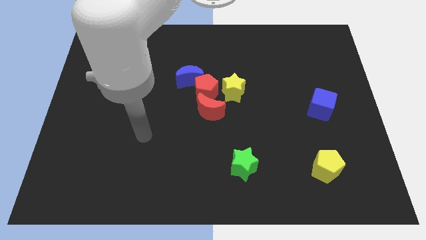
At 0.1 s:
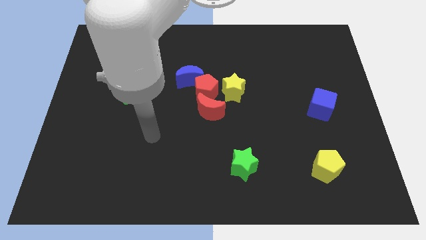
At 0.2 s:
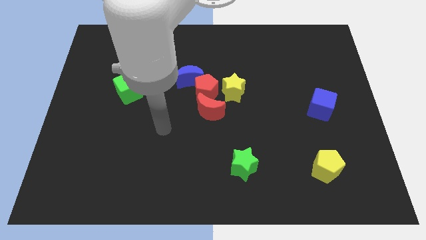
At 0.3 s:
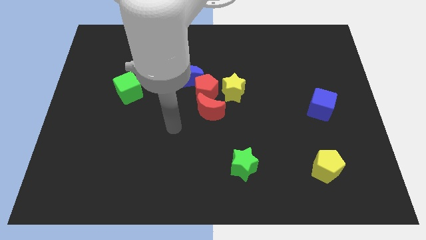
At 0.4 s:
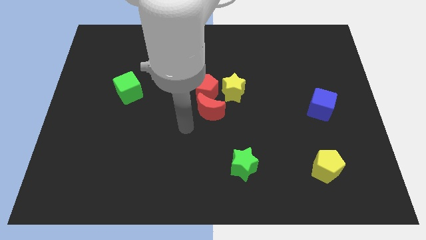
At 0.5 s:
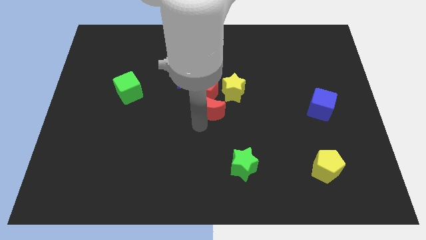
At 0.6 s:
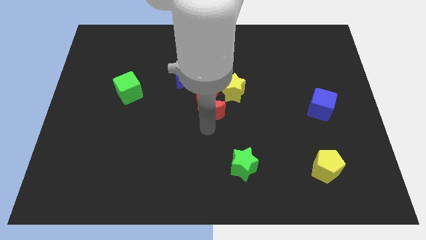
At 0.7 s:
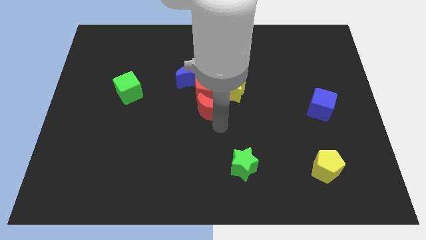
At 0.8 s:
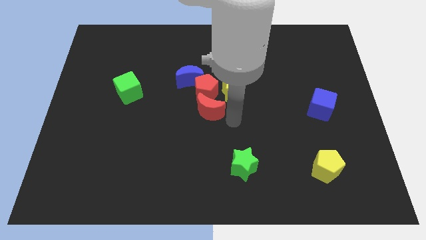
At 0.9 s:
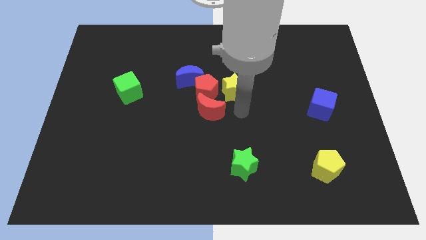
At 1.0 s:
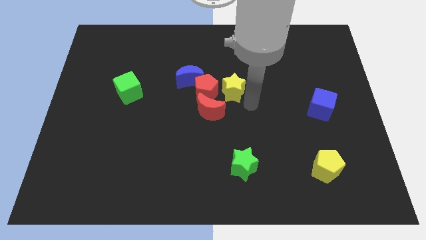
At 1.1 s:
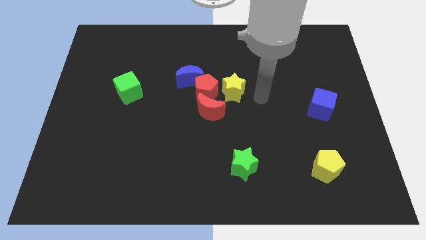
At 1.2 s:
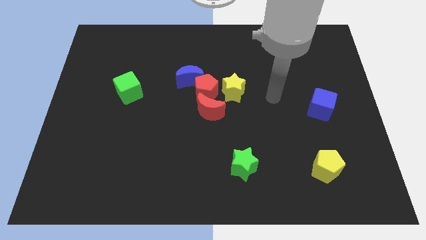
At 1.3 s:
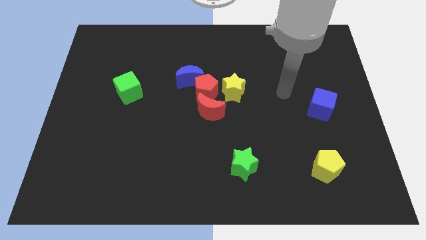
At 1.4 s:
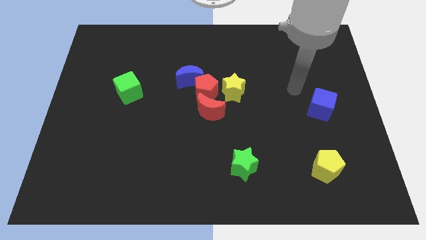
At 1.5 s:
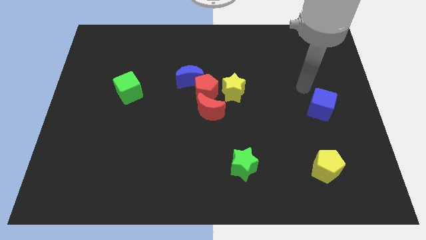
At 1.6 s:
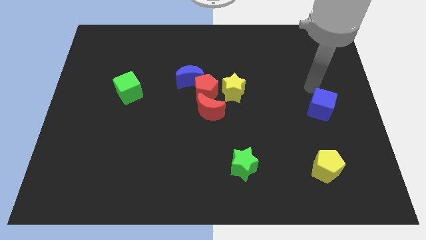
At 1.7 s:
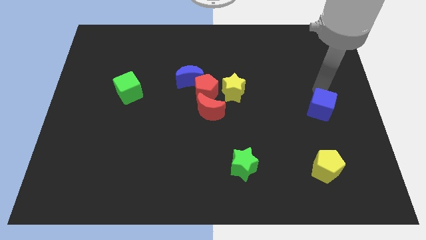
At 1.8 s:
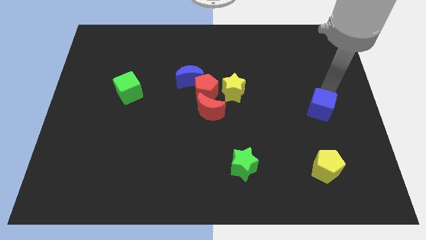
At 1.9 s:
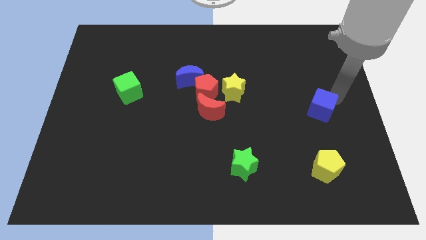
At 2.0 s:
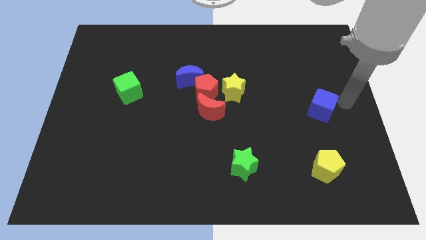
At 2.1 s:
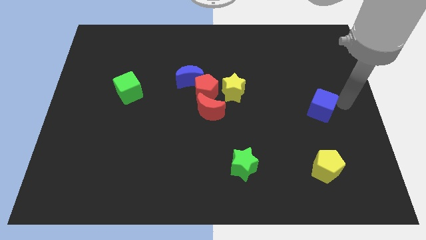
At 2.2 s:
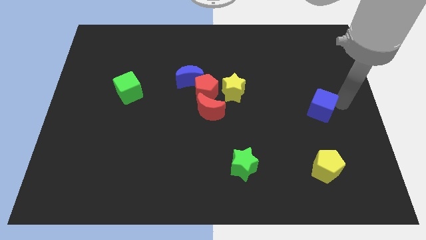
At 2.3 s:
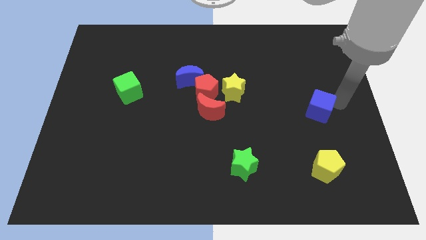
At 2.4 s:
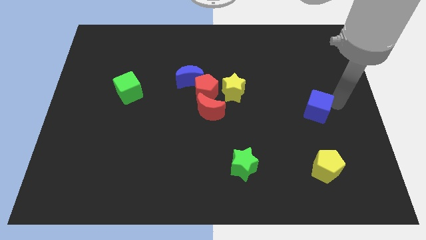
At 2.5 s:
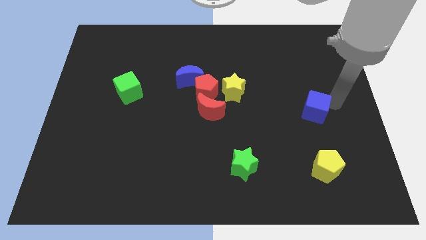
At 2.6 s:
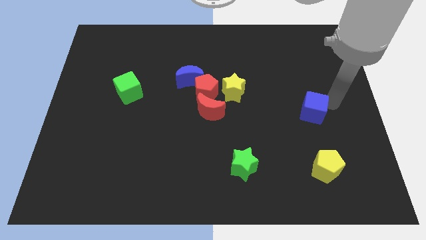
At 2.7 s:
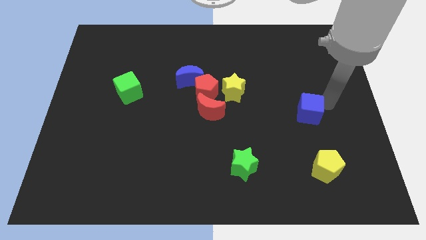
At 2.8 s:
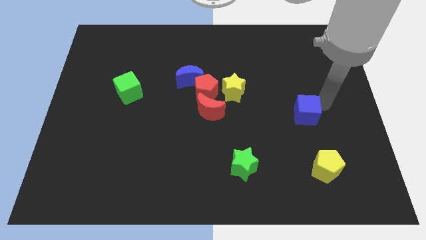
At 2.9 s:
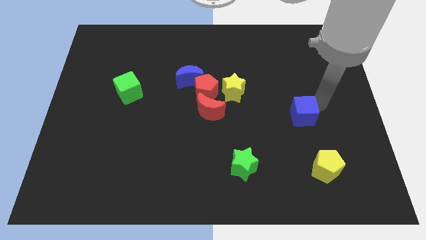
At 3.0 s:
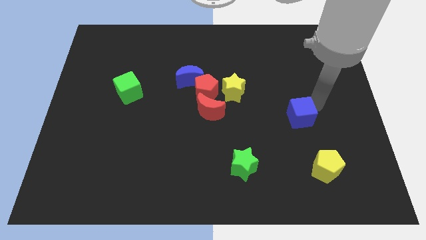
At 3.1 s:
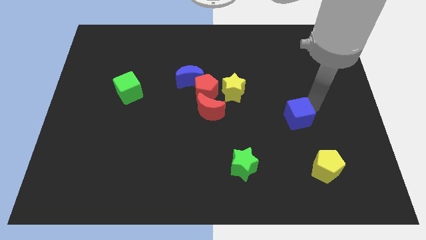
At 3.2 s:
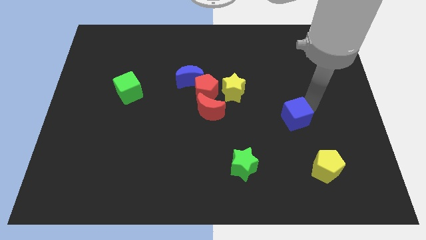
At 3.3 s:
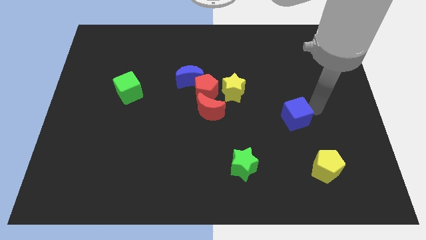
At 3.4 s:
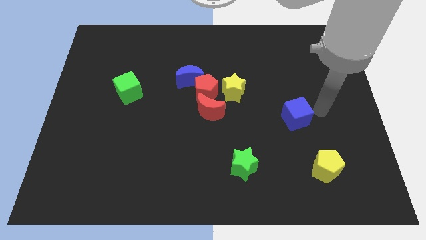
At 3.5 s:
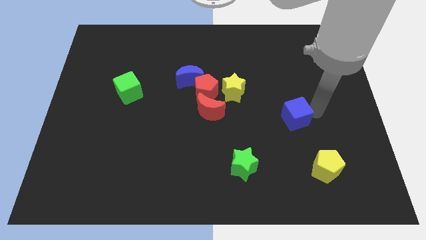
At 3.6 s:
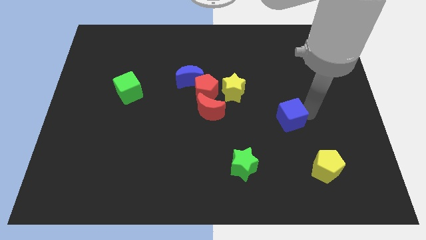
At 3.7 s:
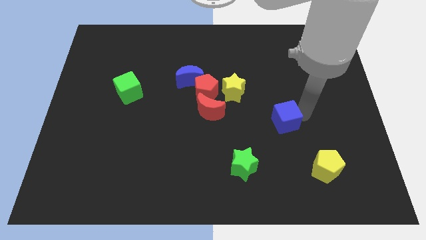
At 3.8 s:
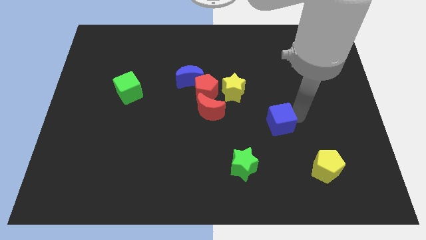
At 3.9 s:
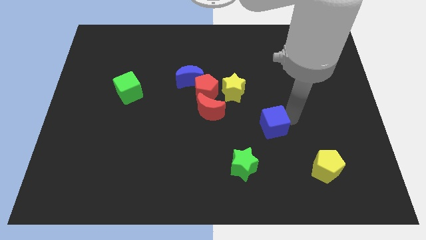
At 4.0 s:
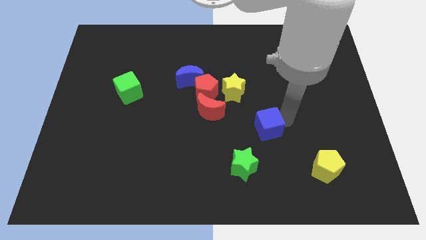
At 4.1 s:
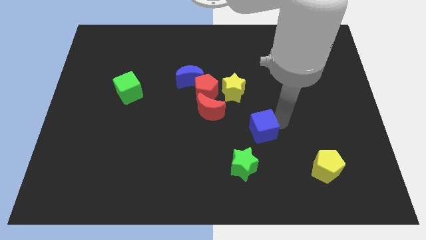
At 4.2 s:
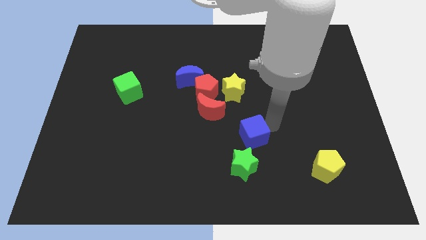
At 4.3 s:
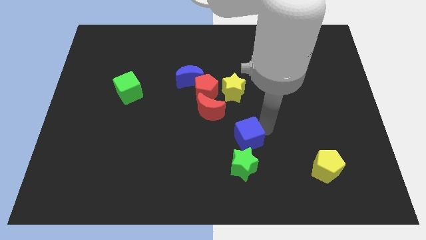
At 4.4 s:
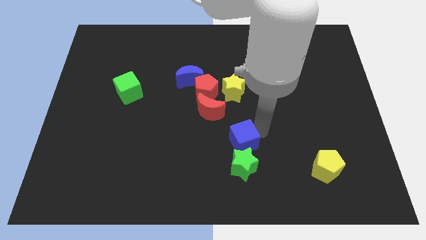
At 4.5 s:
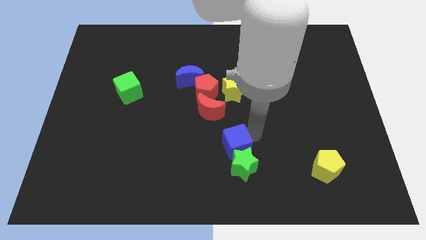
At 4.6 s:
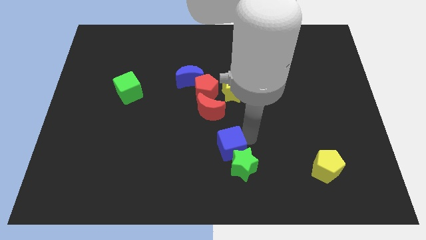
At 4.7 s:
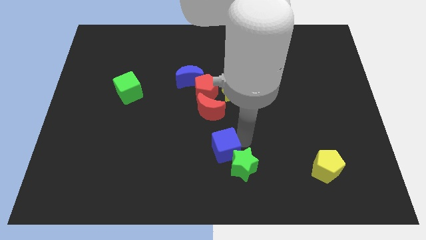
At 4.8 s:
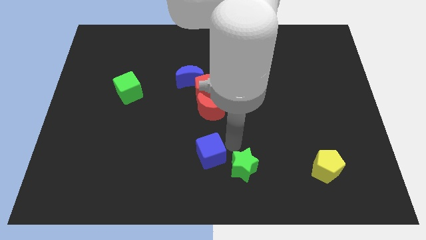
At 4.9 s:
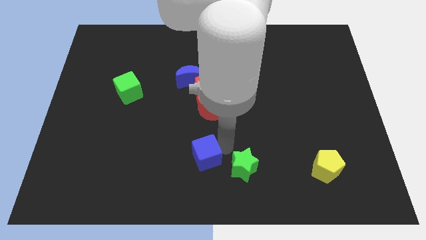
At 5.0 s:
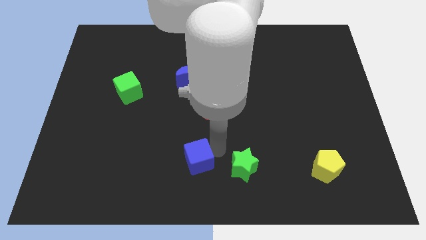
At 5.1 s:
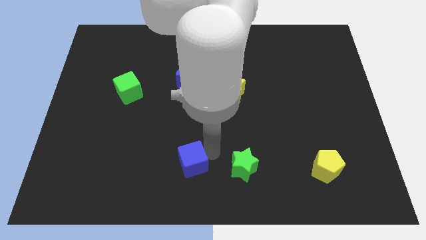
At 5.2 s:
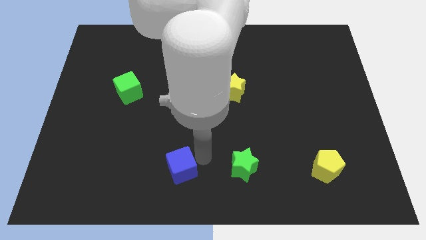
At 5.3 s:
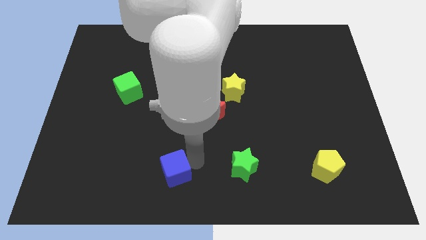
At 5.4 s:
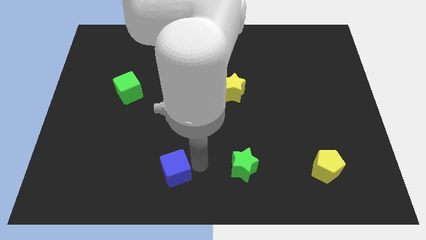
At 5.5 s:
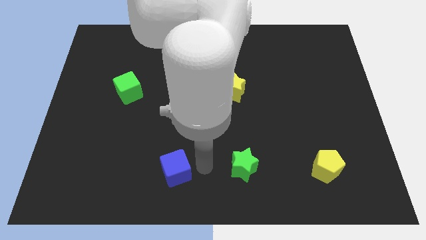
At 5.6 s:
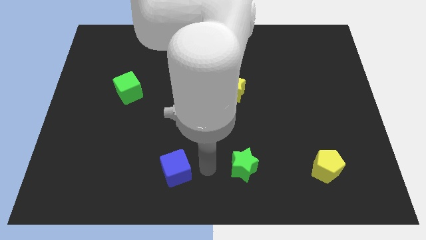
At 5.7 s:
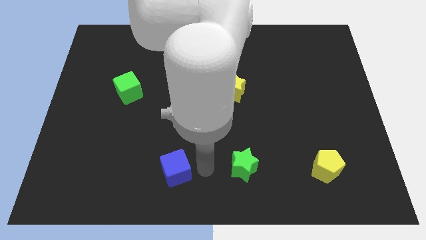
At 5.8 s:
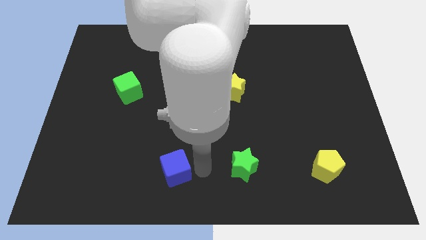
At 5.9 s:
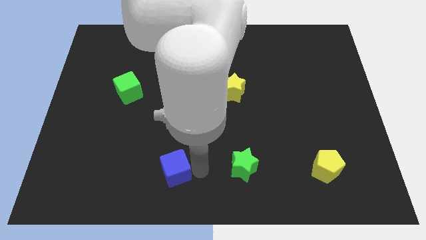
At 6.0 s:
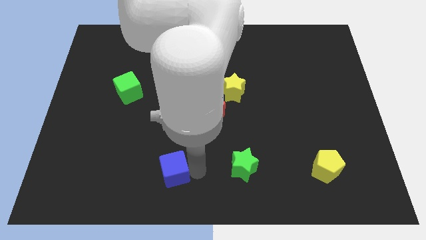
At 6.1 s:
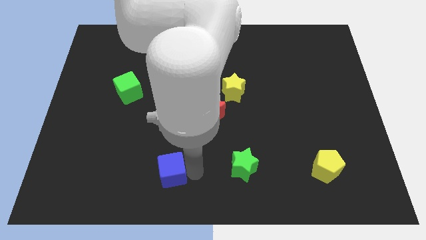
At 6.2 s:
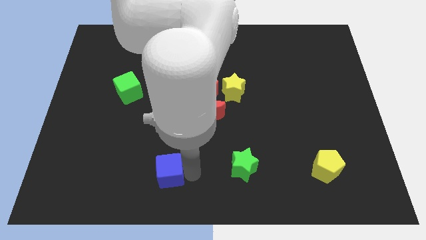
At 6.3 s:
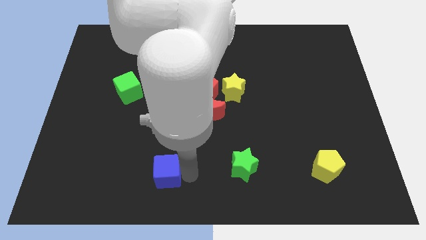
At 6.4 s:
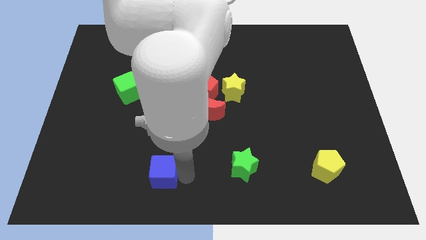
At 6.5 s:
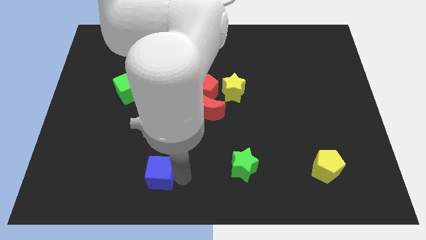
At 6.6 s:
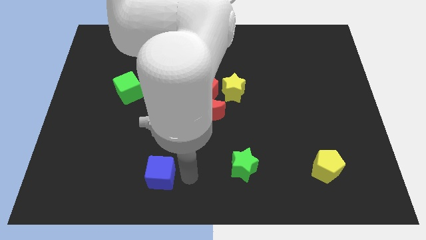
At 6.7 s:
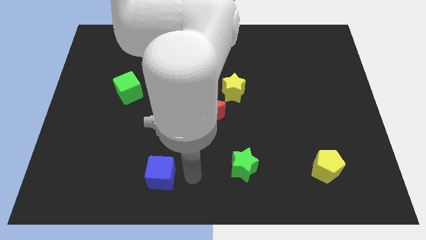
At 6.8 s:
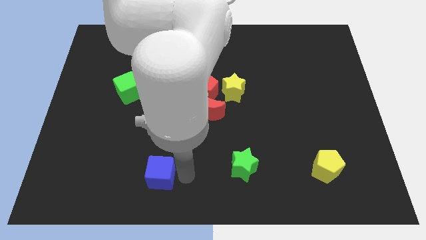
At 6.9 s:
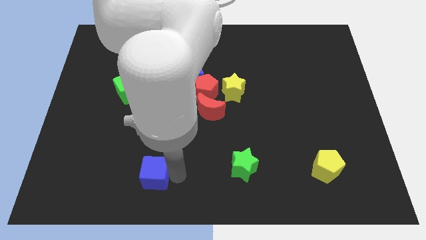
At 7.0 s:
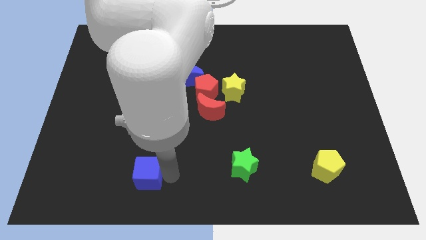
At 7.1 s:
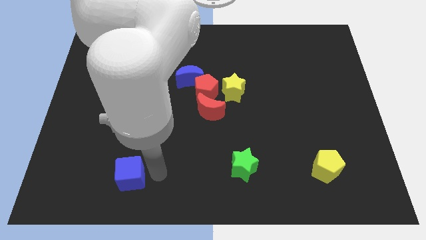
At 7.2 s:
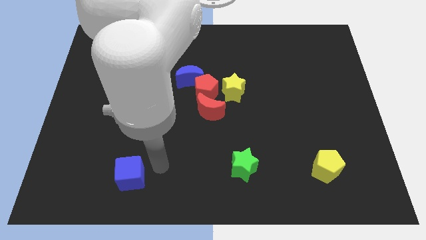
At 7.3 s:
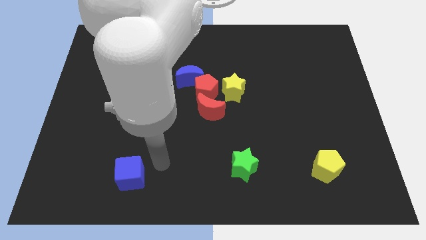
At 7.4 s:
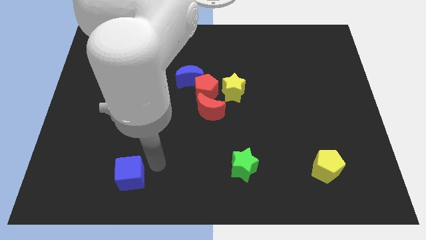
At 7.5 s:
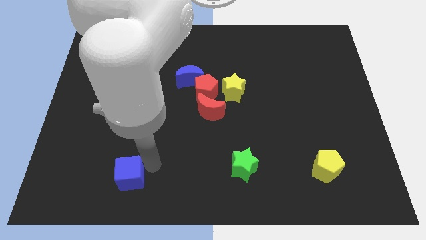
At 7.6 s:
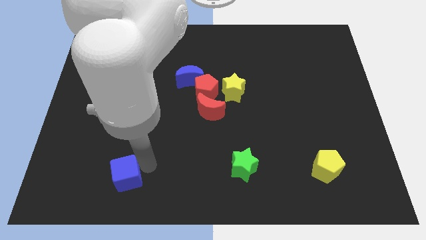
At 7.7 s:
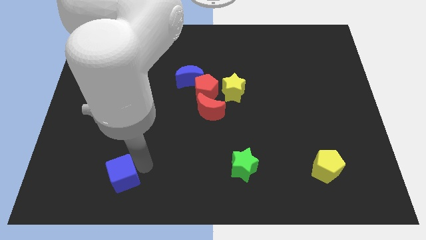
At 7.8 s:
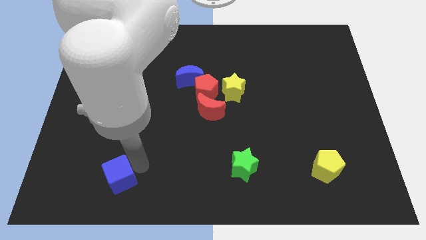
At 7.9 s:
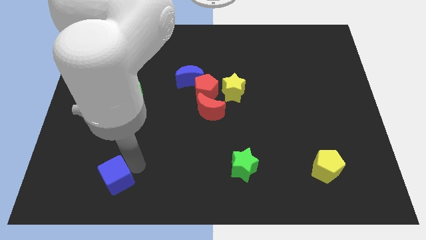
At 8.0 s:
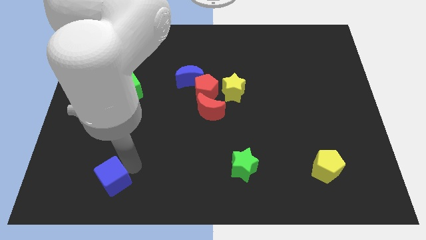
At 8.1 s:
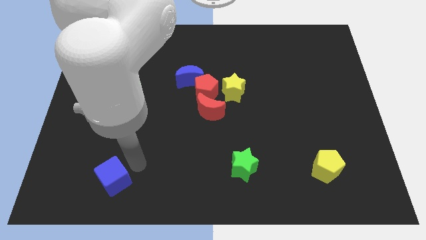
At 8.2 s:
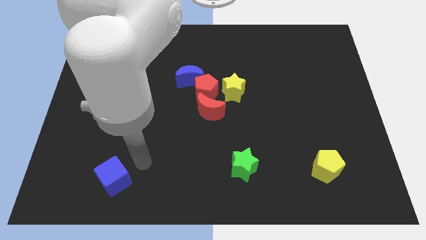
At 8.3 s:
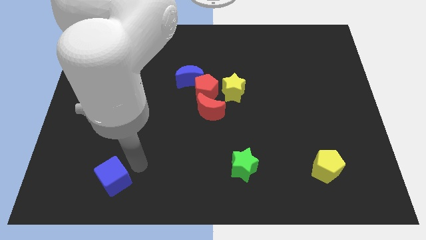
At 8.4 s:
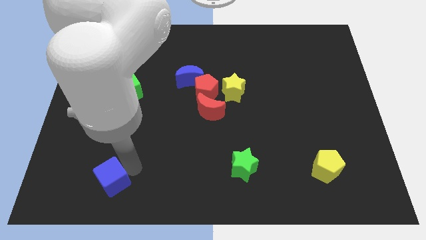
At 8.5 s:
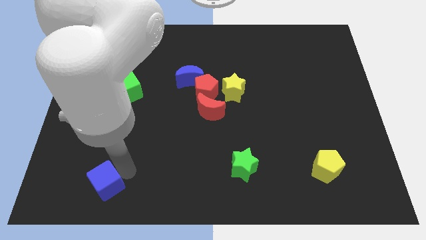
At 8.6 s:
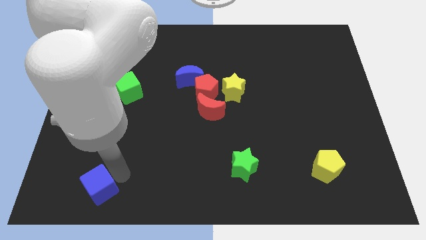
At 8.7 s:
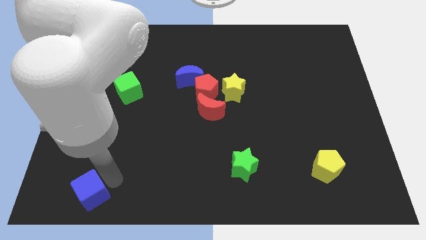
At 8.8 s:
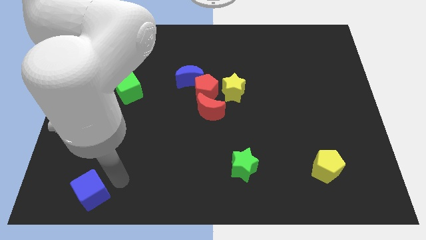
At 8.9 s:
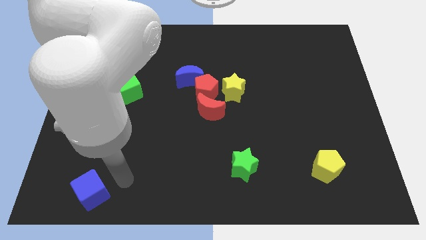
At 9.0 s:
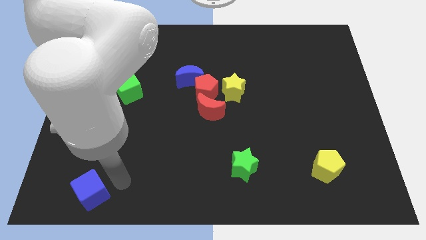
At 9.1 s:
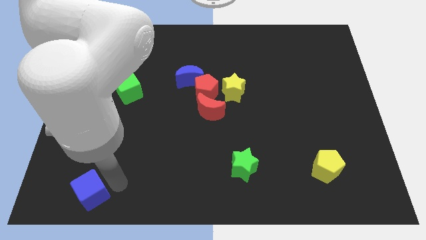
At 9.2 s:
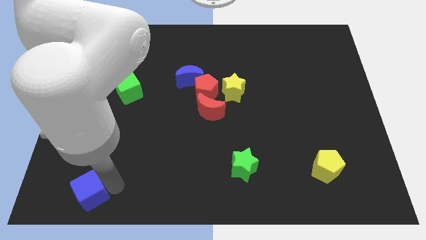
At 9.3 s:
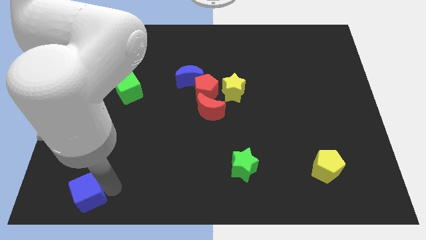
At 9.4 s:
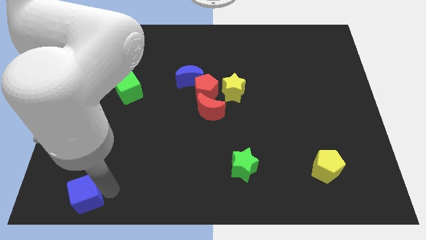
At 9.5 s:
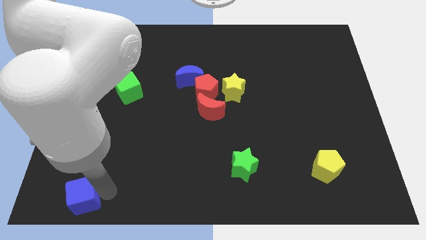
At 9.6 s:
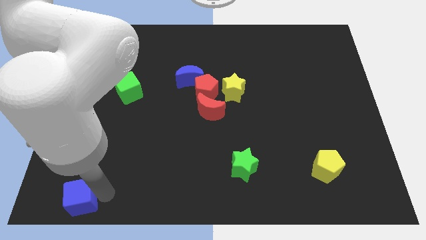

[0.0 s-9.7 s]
push the blue cube to the lower left corner
